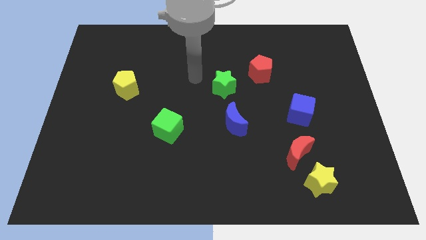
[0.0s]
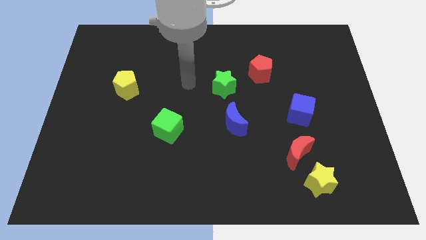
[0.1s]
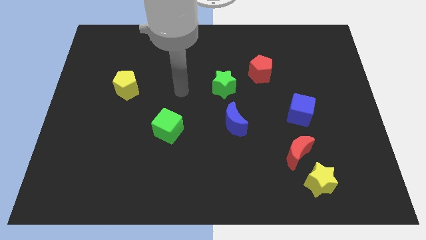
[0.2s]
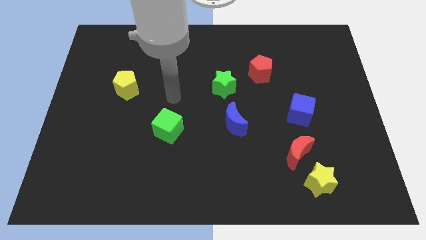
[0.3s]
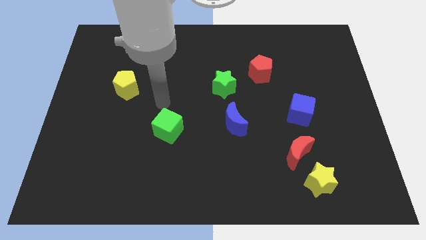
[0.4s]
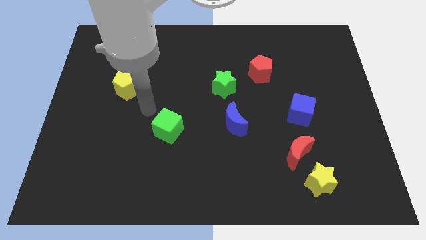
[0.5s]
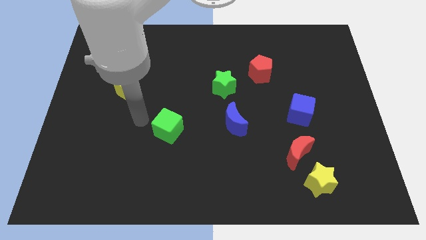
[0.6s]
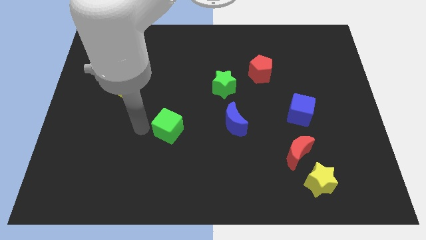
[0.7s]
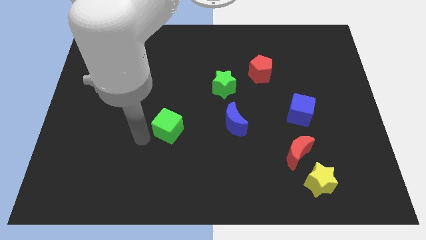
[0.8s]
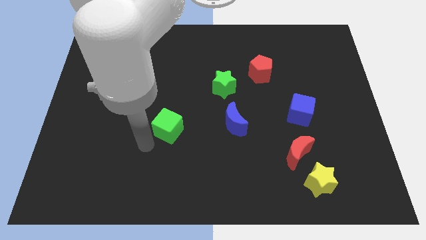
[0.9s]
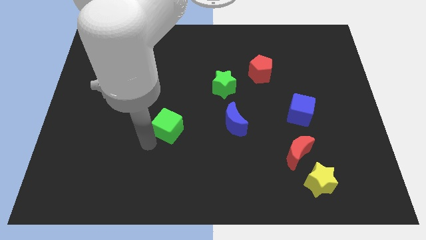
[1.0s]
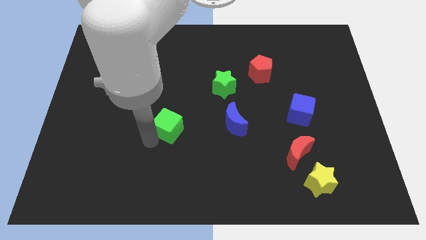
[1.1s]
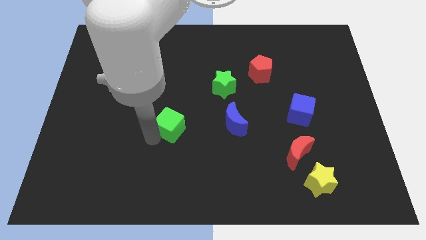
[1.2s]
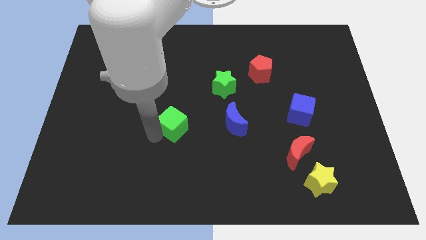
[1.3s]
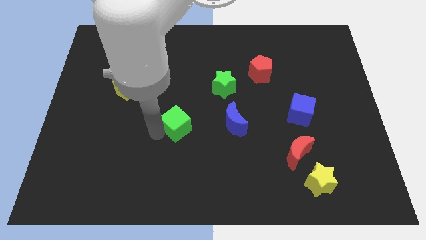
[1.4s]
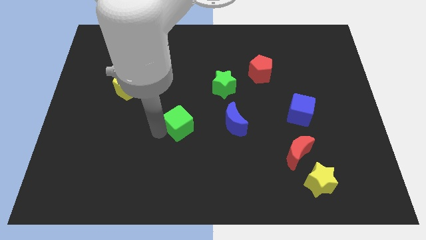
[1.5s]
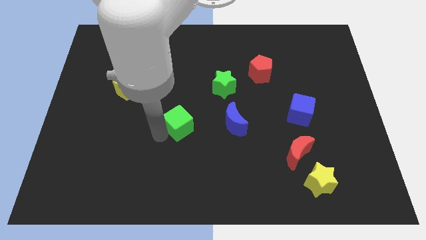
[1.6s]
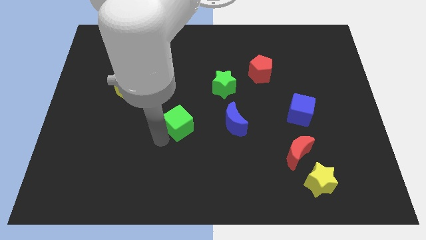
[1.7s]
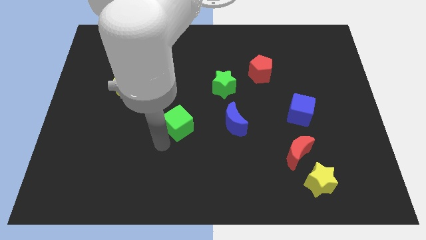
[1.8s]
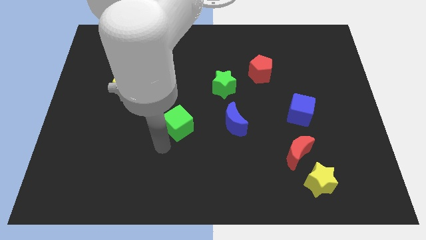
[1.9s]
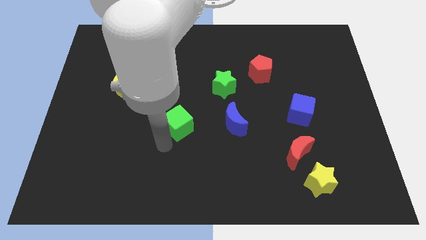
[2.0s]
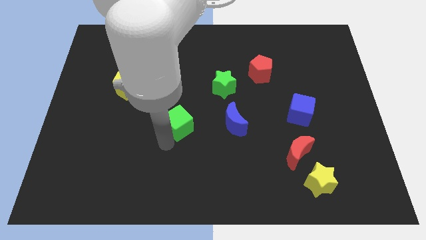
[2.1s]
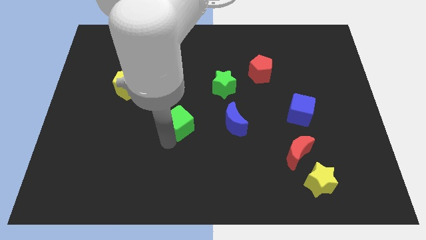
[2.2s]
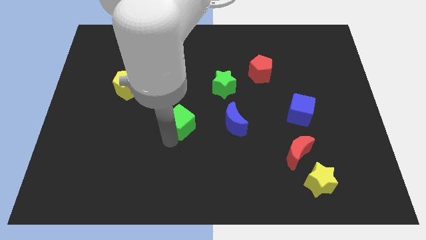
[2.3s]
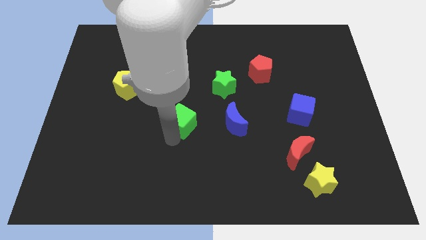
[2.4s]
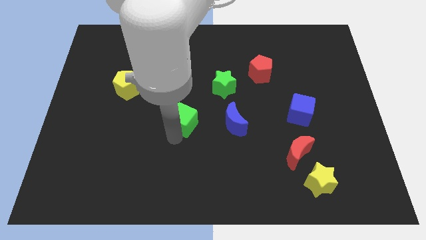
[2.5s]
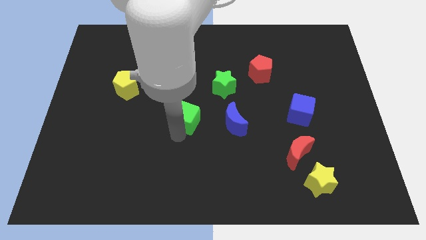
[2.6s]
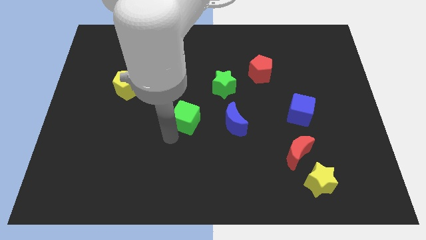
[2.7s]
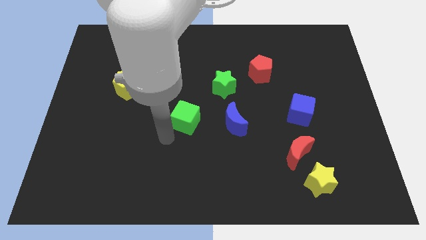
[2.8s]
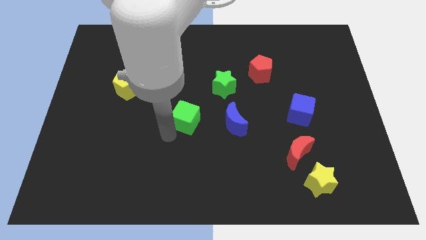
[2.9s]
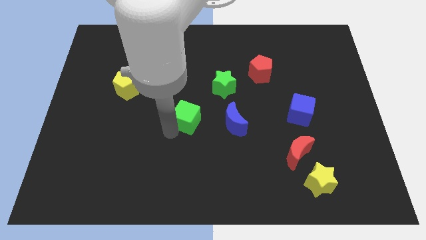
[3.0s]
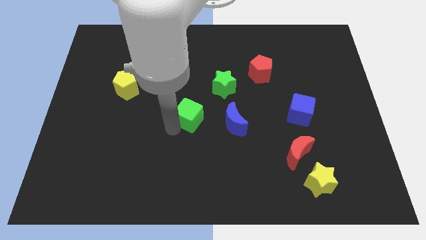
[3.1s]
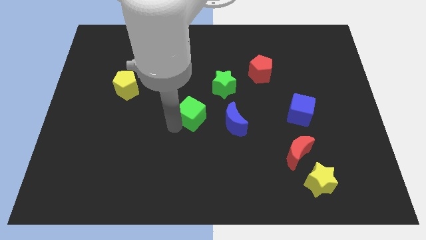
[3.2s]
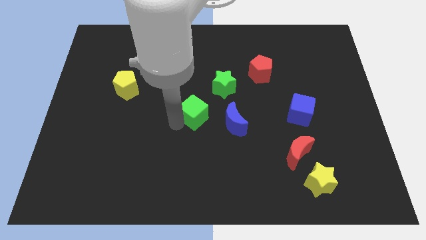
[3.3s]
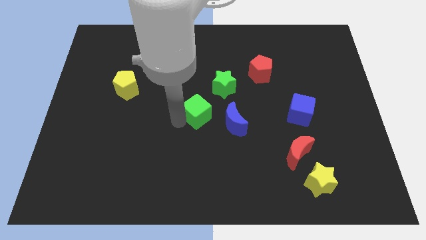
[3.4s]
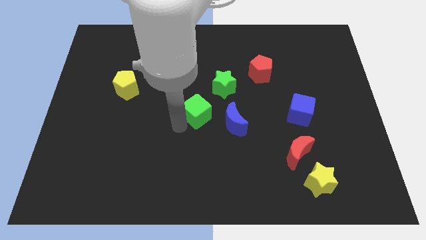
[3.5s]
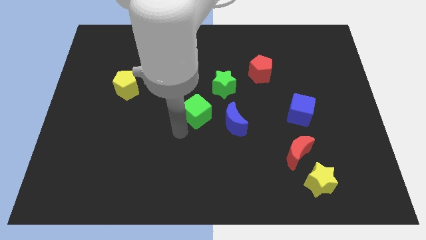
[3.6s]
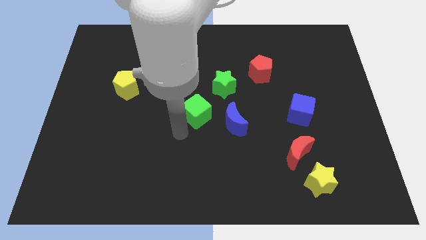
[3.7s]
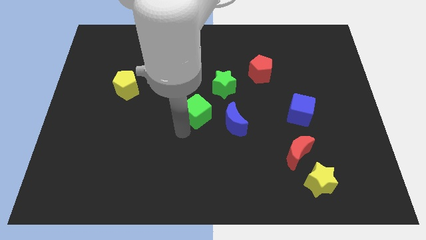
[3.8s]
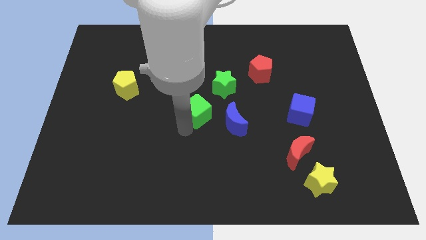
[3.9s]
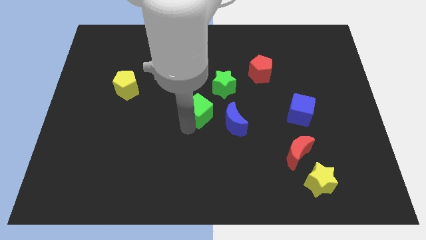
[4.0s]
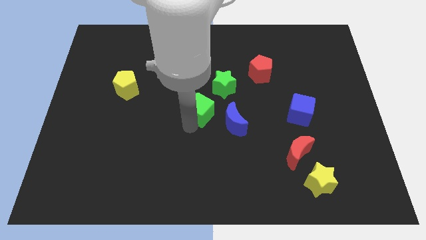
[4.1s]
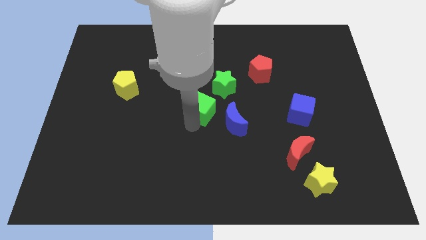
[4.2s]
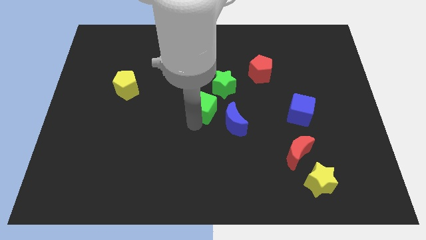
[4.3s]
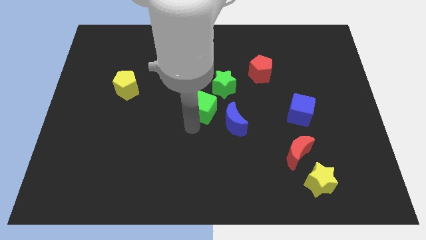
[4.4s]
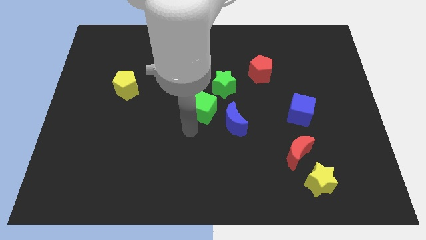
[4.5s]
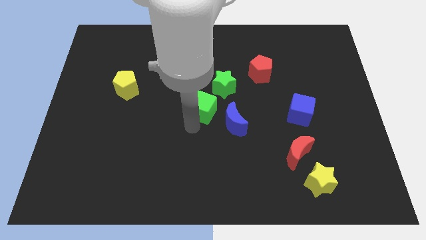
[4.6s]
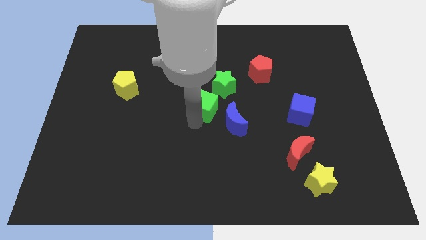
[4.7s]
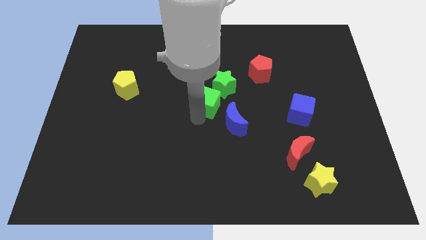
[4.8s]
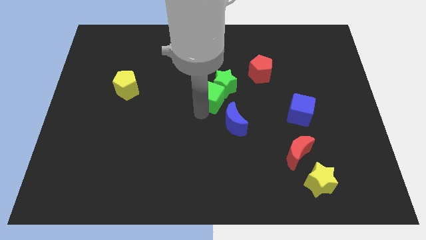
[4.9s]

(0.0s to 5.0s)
push the green cube to the green star

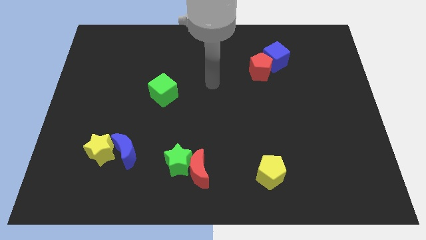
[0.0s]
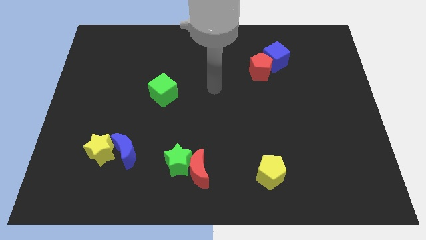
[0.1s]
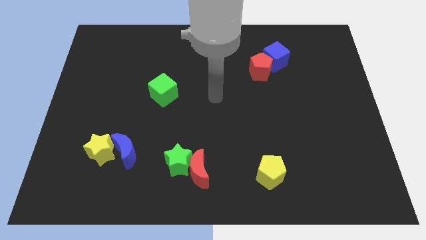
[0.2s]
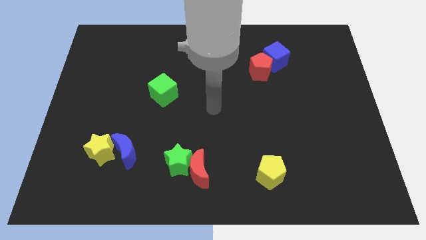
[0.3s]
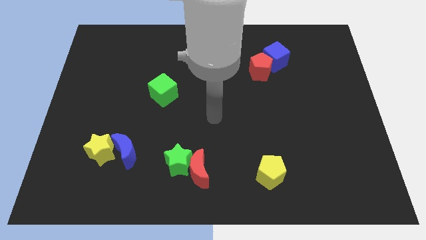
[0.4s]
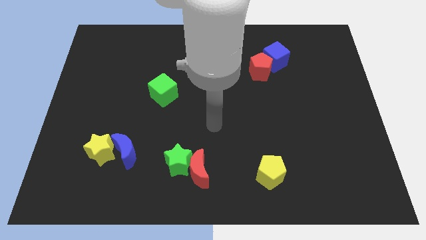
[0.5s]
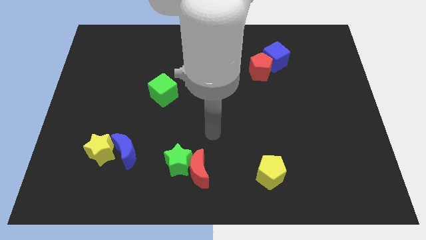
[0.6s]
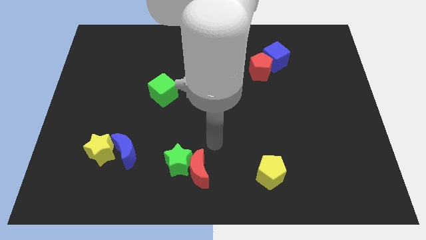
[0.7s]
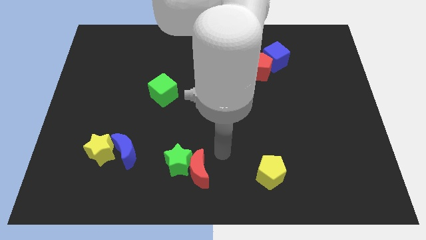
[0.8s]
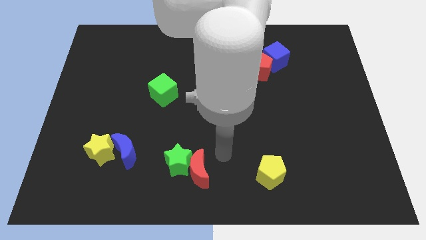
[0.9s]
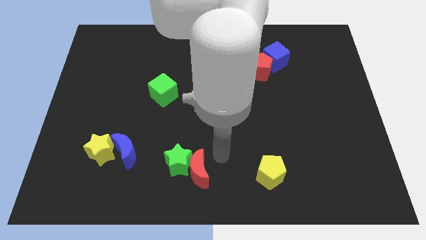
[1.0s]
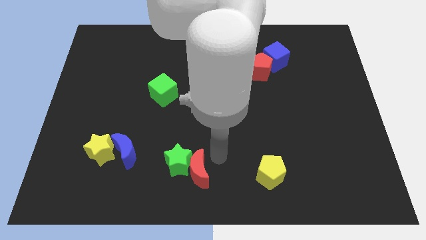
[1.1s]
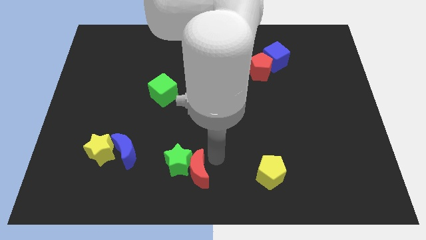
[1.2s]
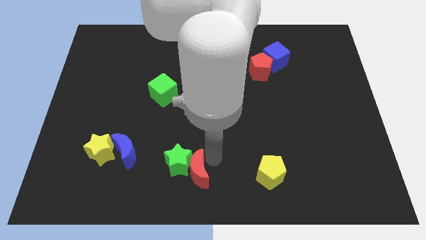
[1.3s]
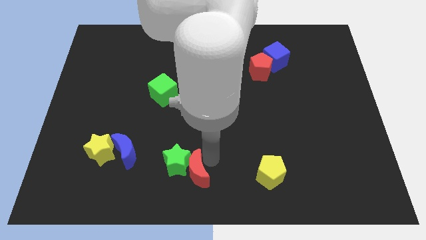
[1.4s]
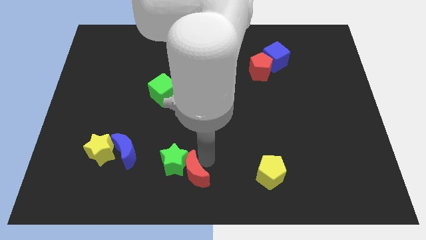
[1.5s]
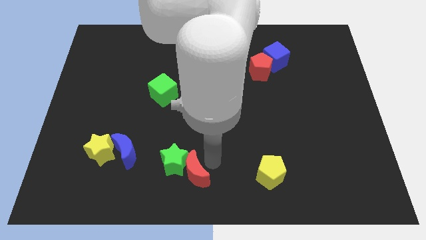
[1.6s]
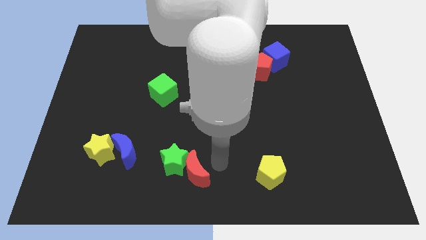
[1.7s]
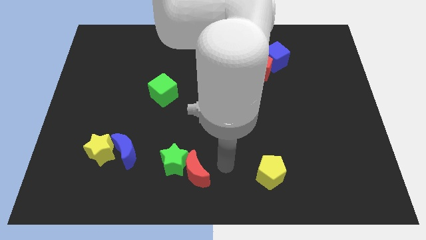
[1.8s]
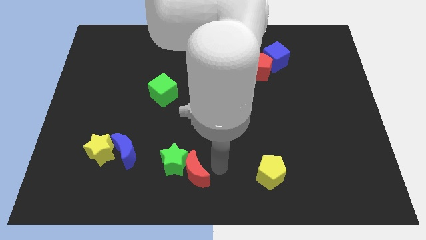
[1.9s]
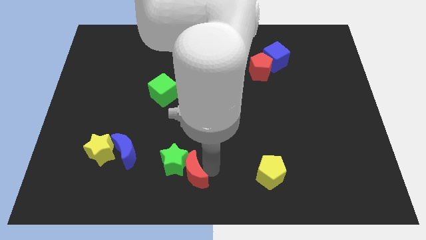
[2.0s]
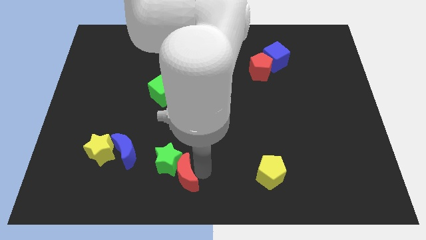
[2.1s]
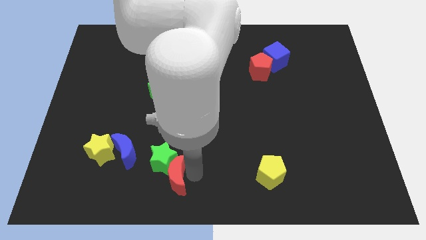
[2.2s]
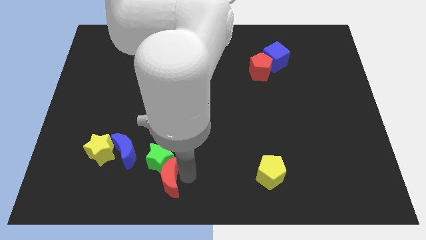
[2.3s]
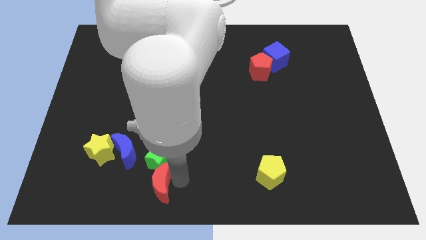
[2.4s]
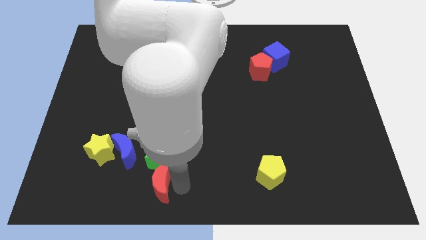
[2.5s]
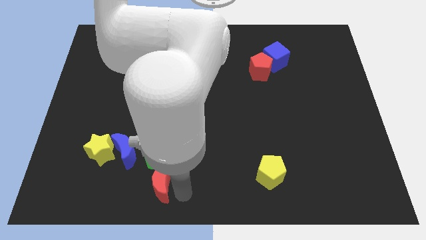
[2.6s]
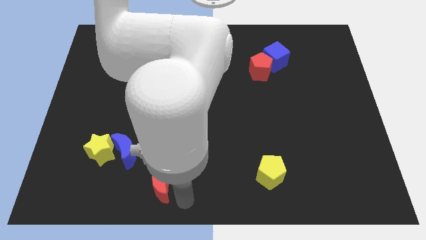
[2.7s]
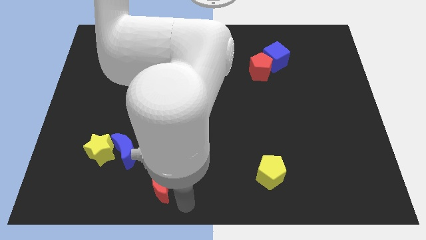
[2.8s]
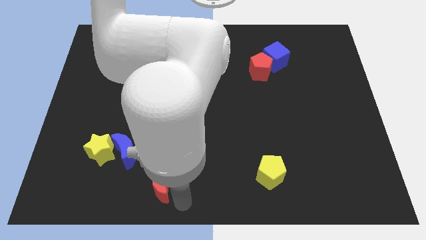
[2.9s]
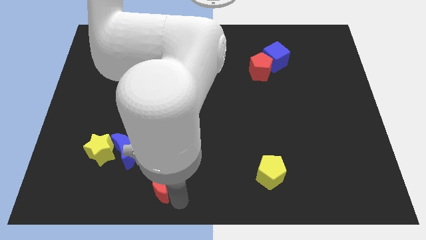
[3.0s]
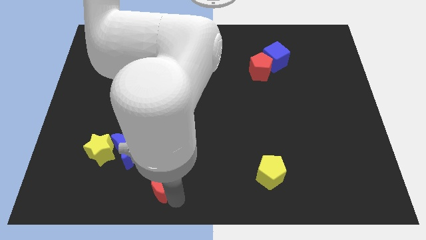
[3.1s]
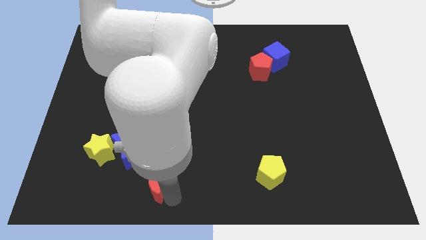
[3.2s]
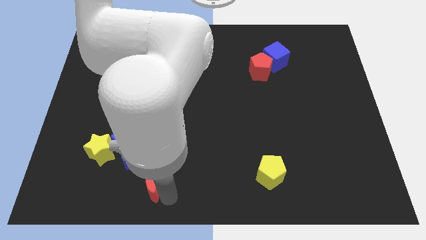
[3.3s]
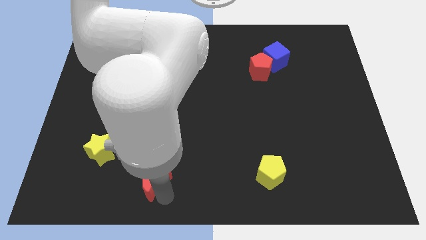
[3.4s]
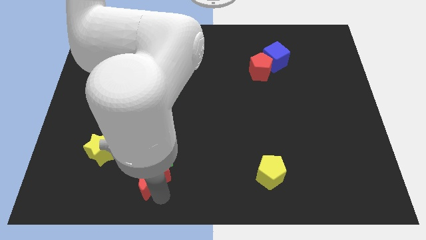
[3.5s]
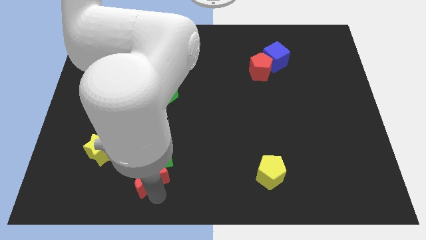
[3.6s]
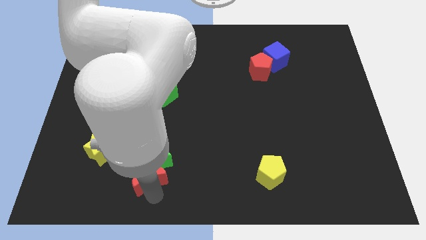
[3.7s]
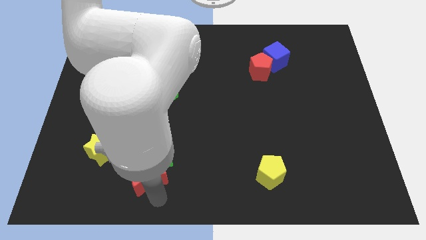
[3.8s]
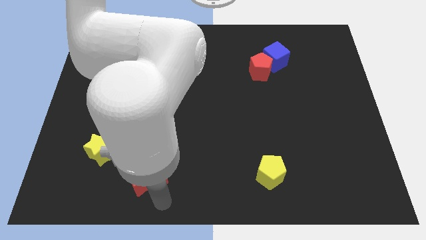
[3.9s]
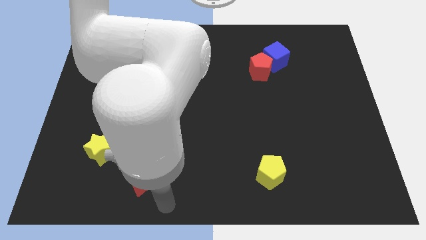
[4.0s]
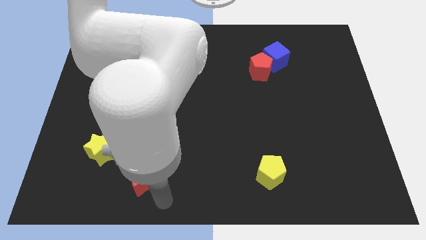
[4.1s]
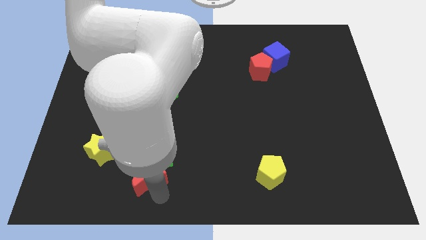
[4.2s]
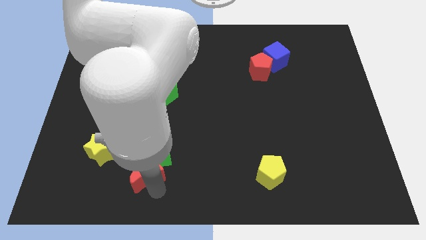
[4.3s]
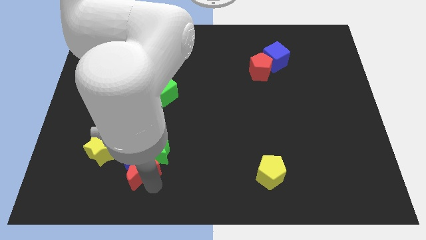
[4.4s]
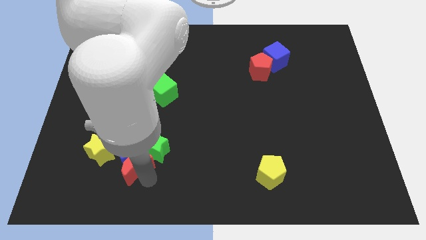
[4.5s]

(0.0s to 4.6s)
push the red moon next to the blue moon
